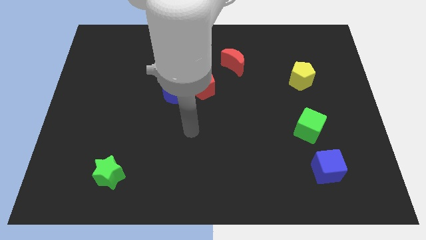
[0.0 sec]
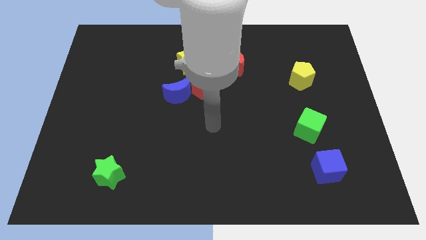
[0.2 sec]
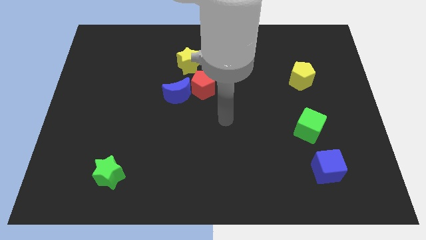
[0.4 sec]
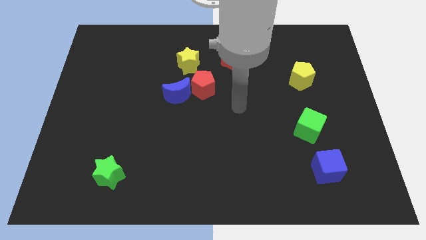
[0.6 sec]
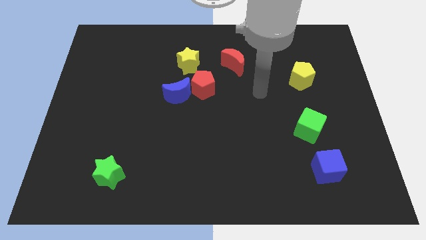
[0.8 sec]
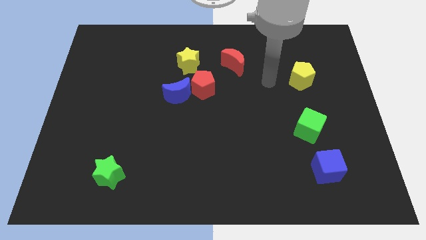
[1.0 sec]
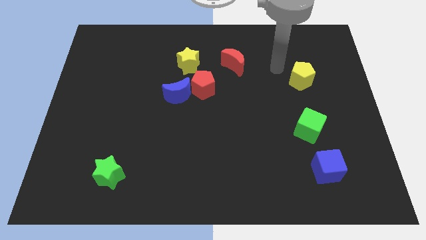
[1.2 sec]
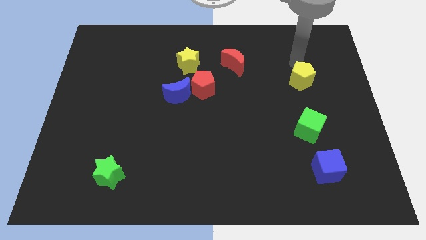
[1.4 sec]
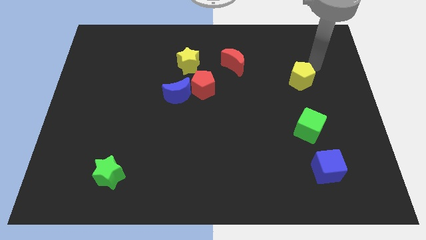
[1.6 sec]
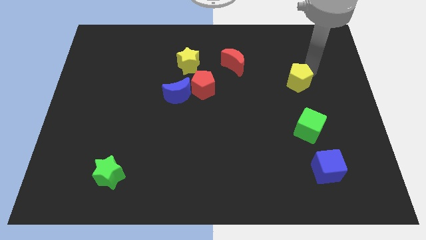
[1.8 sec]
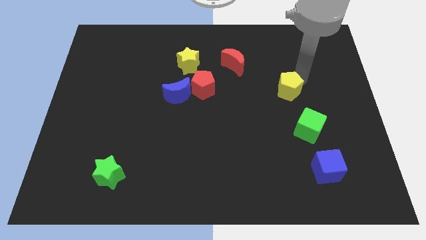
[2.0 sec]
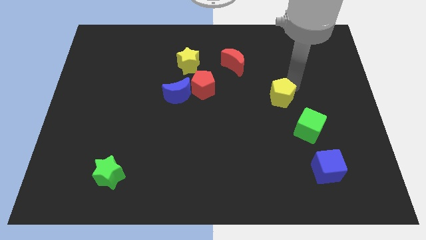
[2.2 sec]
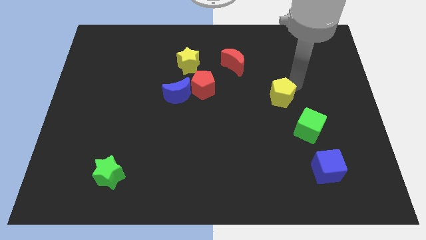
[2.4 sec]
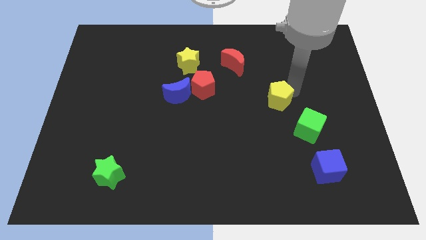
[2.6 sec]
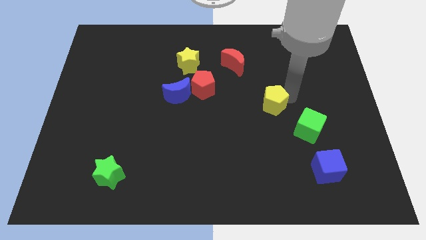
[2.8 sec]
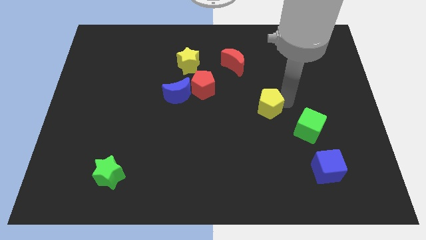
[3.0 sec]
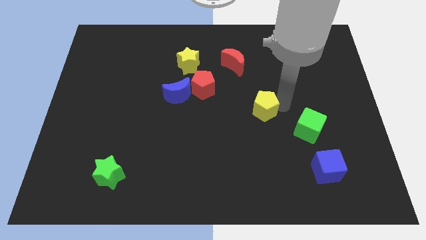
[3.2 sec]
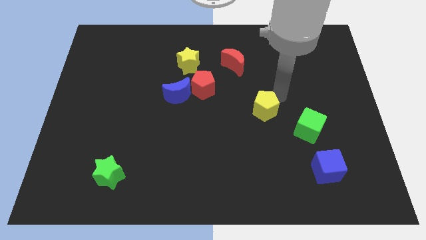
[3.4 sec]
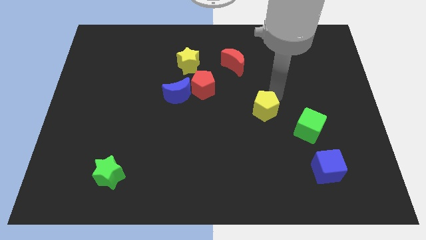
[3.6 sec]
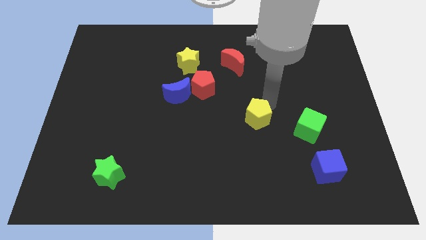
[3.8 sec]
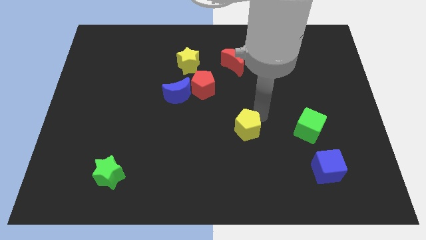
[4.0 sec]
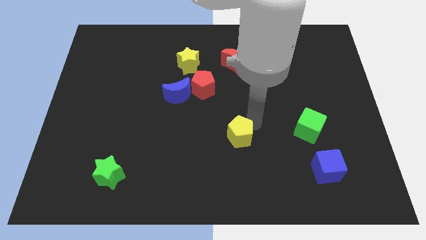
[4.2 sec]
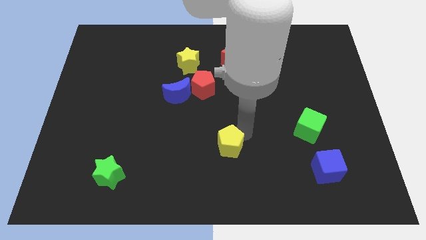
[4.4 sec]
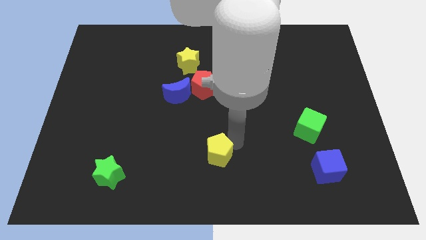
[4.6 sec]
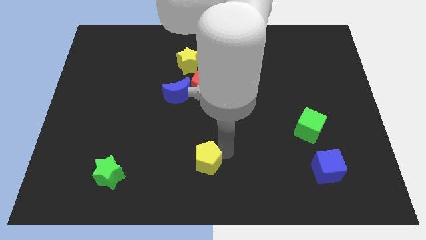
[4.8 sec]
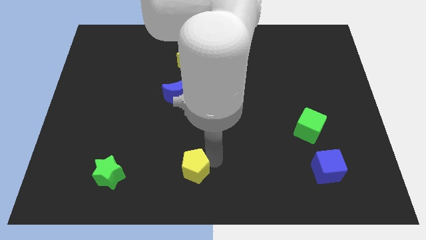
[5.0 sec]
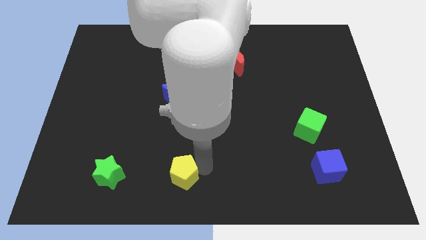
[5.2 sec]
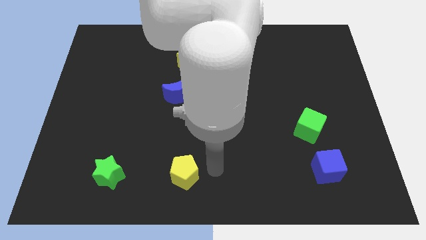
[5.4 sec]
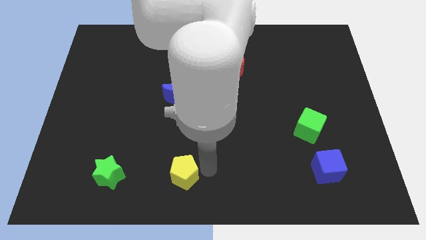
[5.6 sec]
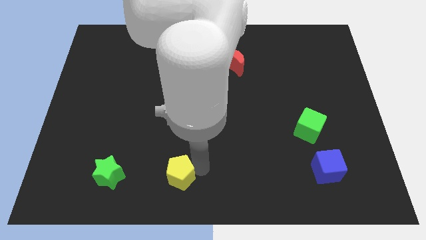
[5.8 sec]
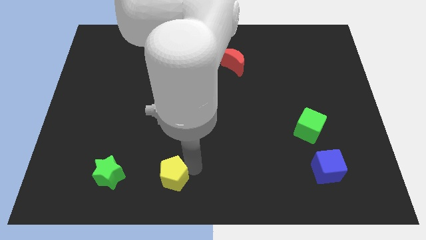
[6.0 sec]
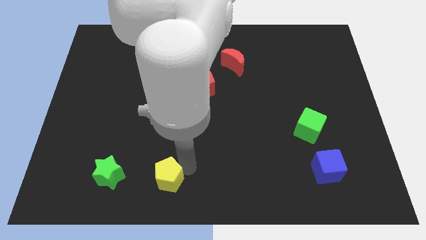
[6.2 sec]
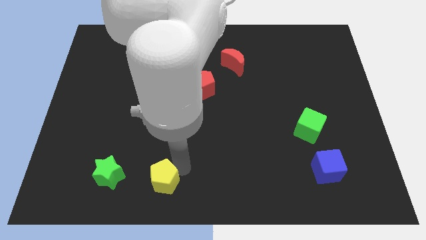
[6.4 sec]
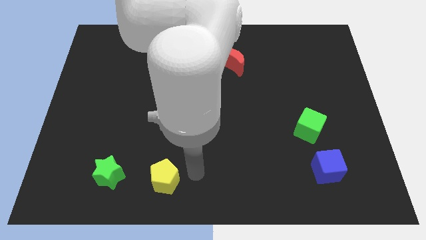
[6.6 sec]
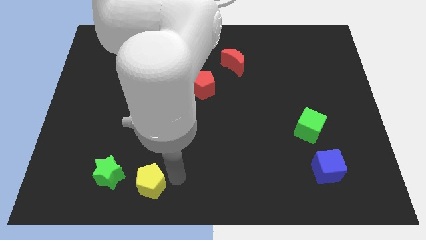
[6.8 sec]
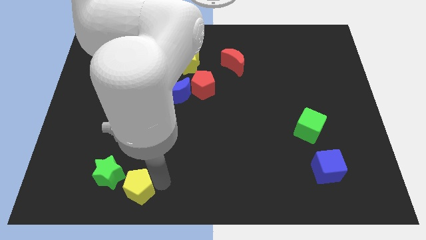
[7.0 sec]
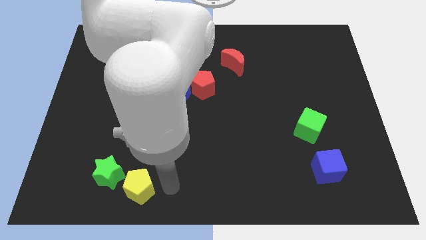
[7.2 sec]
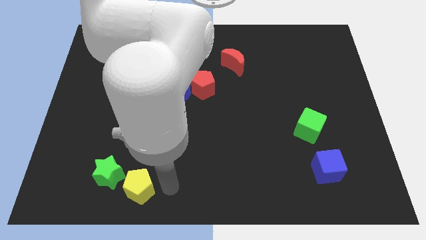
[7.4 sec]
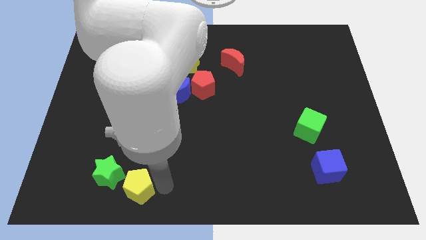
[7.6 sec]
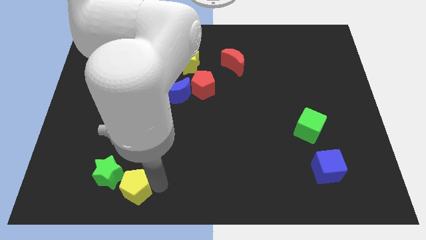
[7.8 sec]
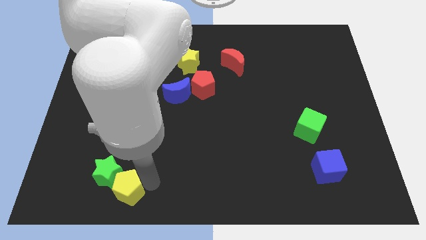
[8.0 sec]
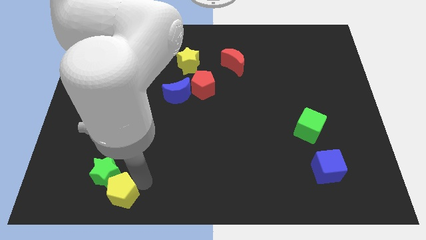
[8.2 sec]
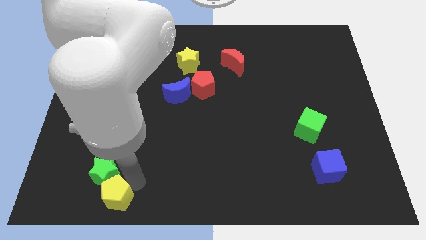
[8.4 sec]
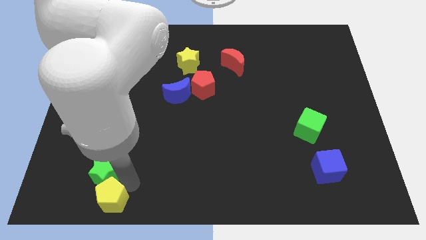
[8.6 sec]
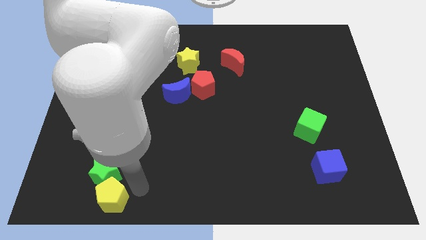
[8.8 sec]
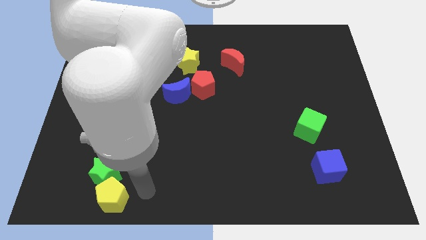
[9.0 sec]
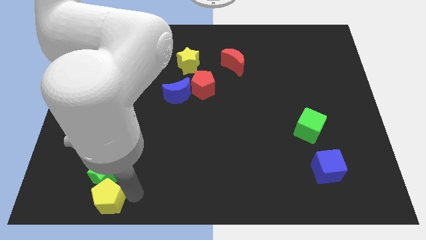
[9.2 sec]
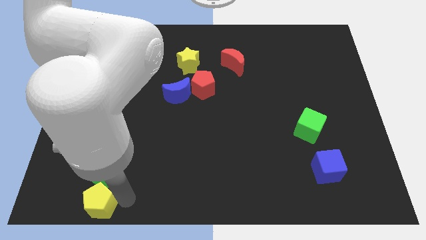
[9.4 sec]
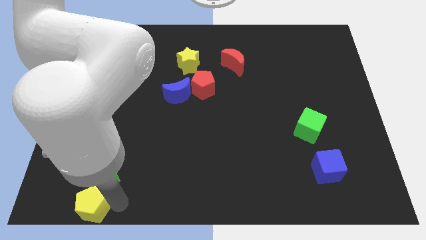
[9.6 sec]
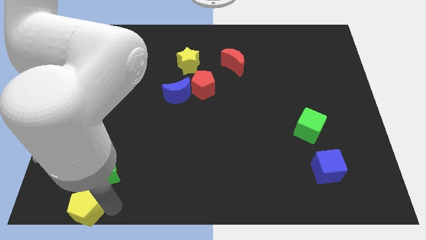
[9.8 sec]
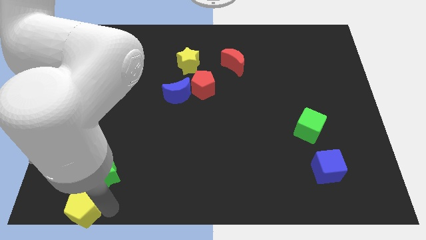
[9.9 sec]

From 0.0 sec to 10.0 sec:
move the yellow pentagon to the bottom left

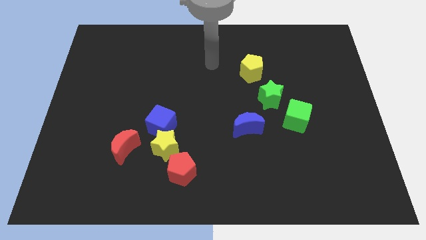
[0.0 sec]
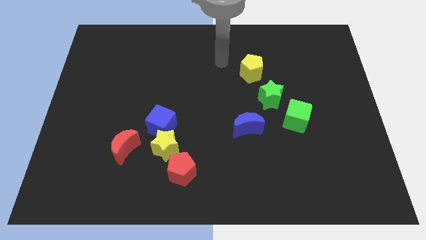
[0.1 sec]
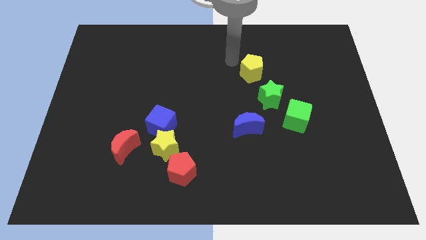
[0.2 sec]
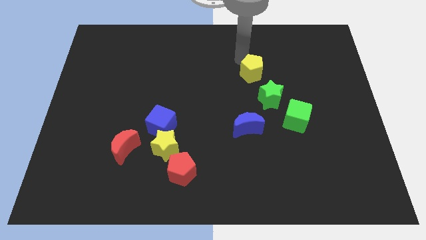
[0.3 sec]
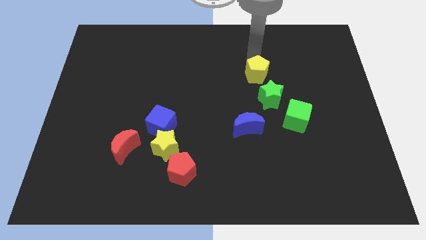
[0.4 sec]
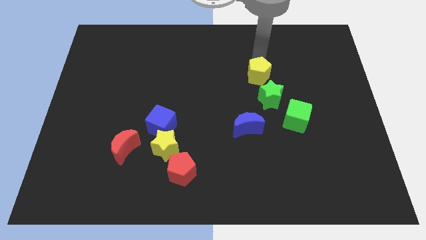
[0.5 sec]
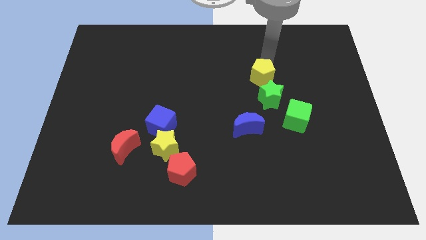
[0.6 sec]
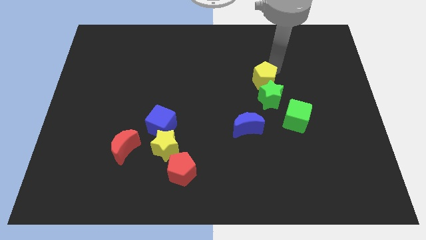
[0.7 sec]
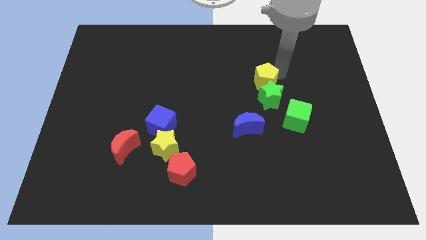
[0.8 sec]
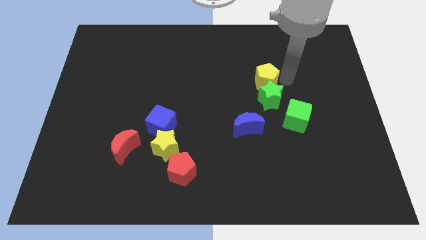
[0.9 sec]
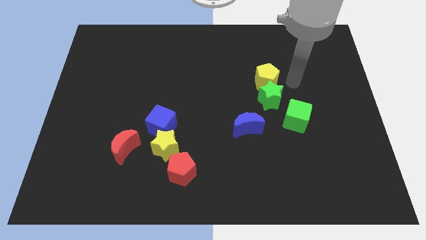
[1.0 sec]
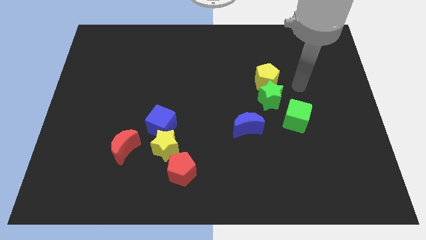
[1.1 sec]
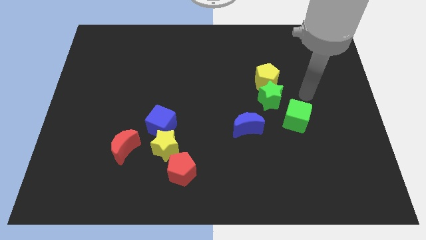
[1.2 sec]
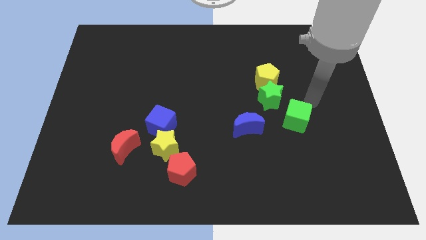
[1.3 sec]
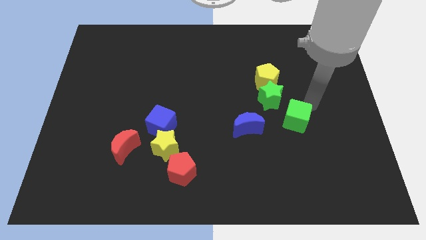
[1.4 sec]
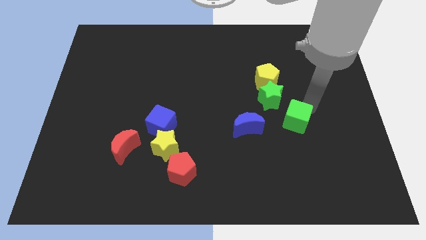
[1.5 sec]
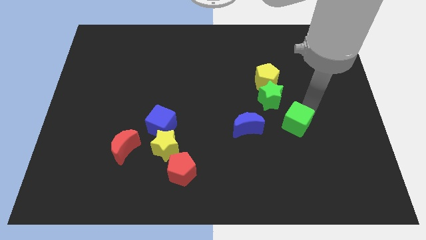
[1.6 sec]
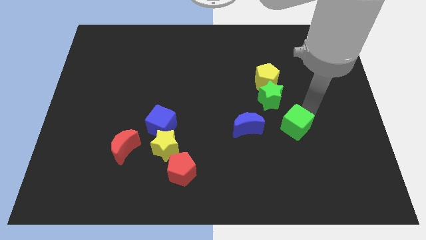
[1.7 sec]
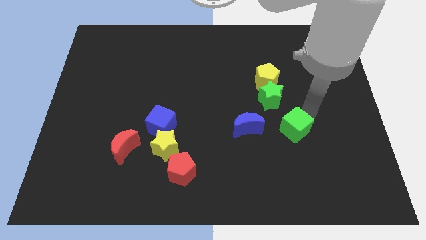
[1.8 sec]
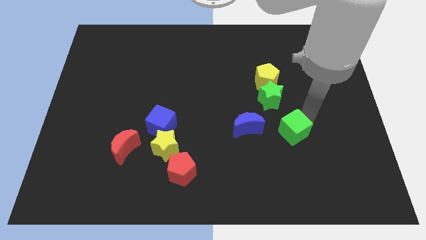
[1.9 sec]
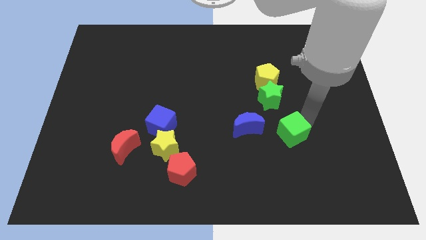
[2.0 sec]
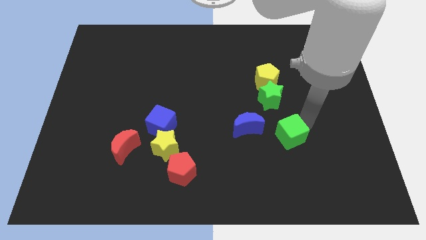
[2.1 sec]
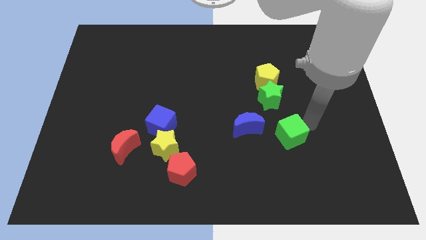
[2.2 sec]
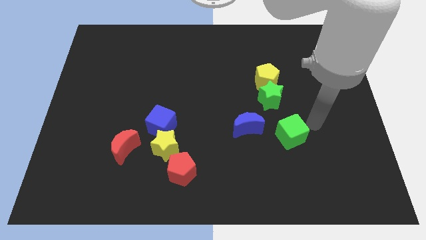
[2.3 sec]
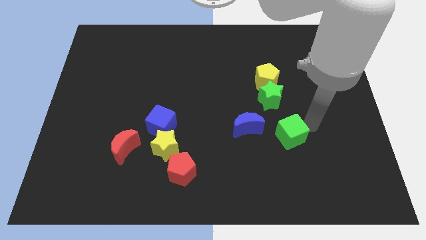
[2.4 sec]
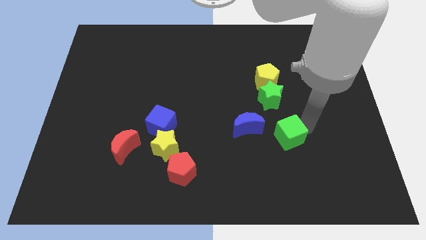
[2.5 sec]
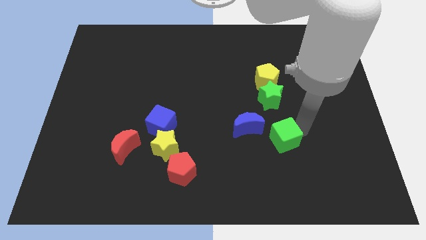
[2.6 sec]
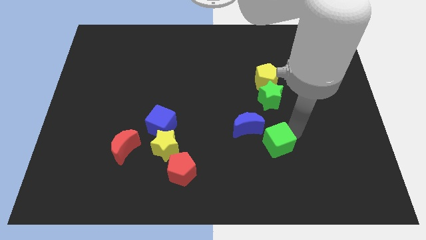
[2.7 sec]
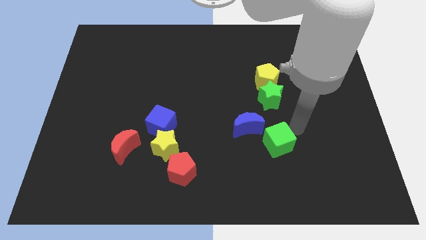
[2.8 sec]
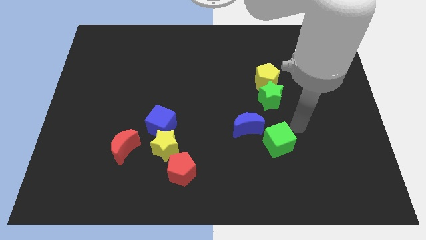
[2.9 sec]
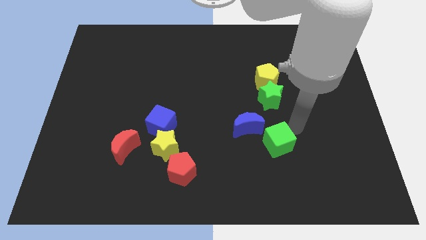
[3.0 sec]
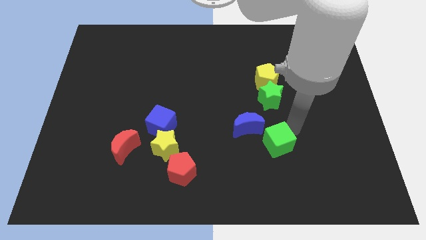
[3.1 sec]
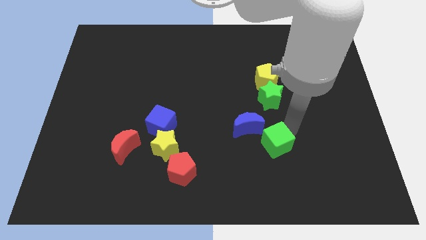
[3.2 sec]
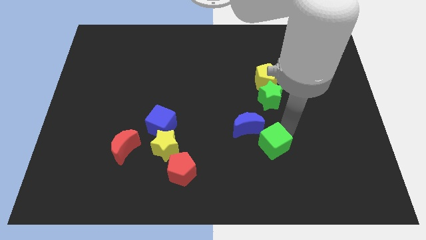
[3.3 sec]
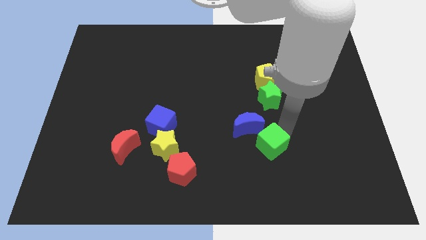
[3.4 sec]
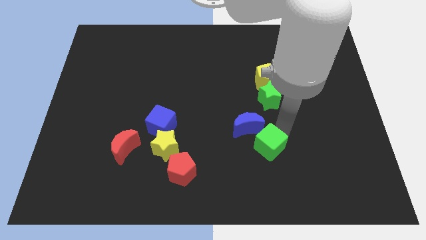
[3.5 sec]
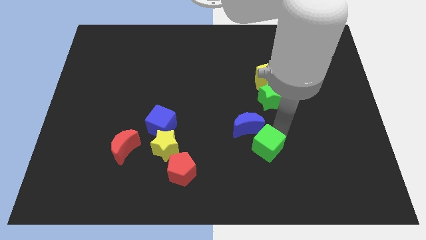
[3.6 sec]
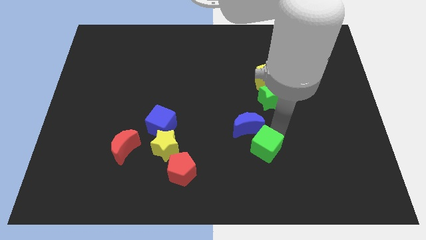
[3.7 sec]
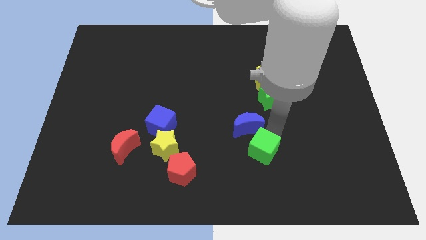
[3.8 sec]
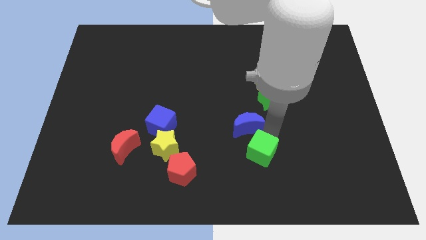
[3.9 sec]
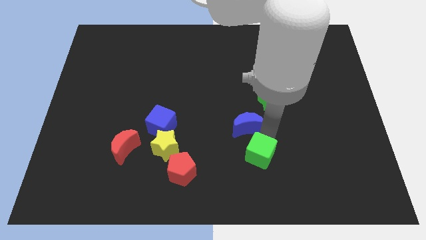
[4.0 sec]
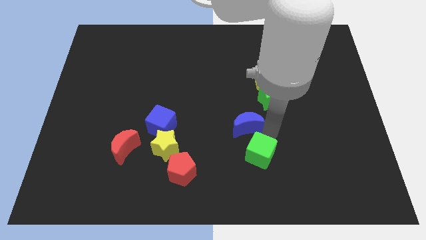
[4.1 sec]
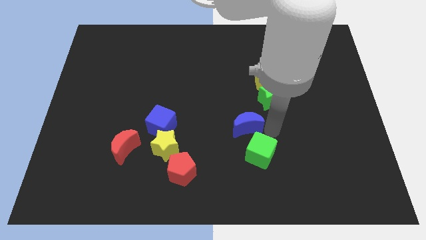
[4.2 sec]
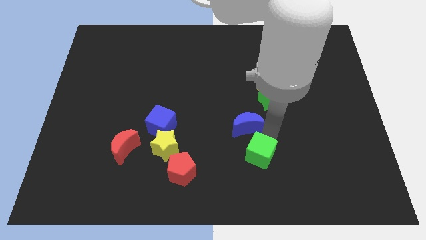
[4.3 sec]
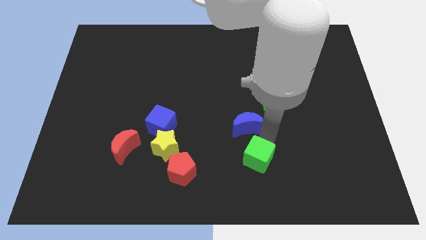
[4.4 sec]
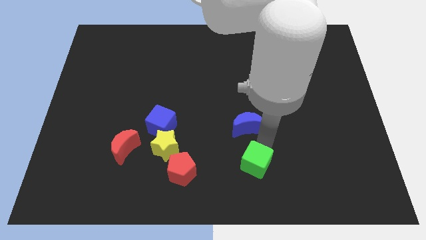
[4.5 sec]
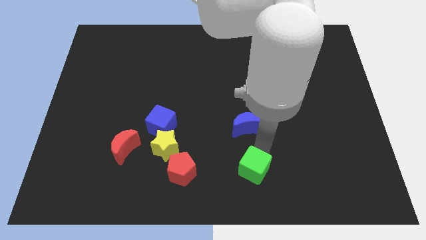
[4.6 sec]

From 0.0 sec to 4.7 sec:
slide the green cube to the bottom side
